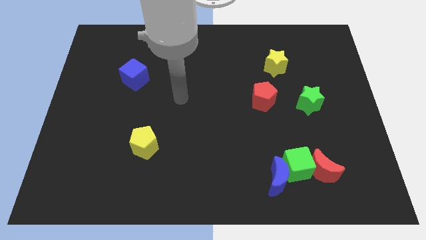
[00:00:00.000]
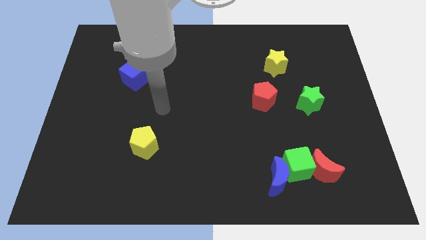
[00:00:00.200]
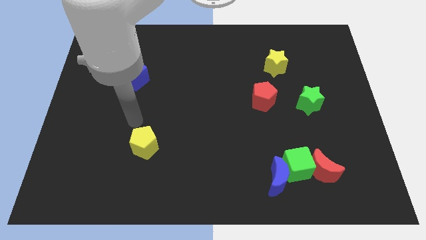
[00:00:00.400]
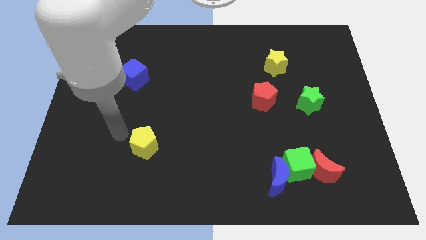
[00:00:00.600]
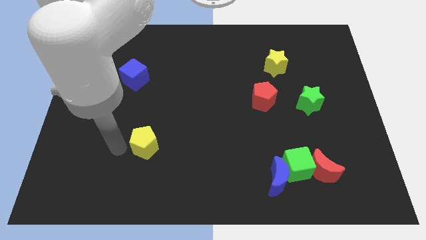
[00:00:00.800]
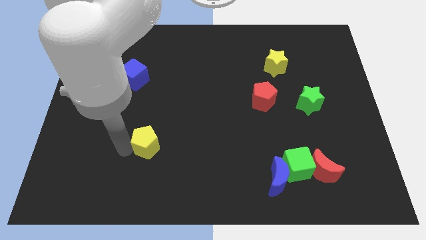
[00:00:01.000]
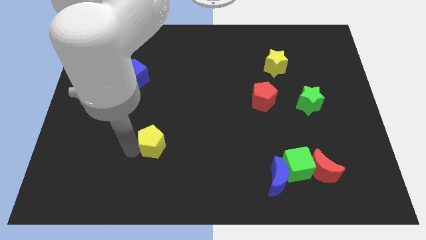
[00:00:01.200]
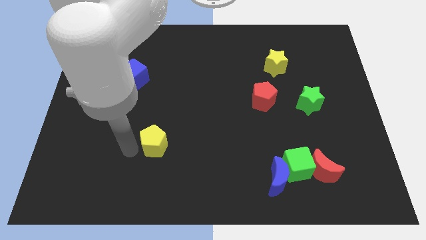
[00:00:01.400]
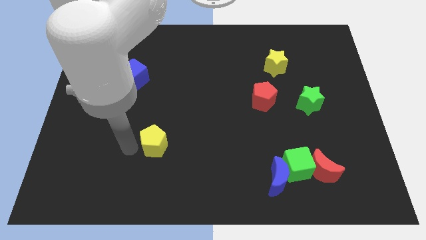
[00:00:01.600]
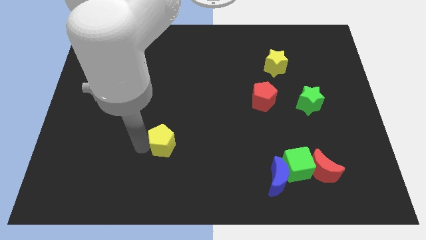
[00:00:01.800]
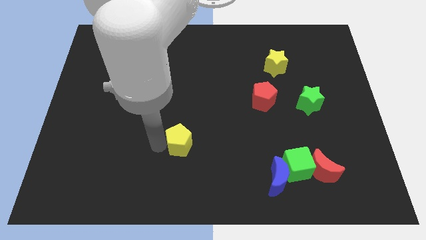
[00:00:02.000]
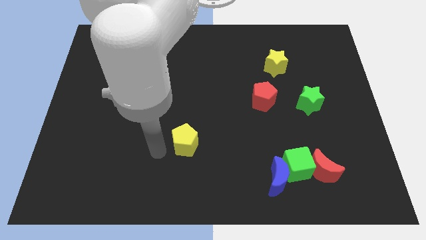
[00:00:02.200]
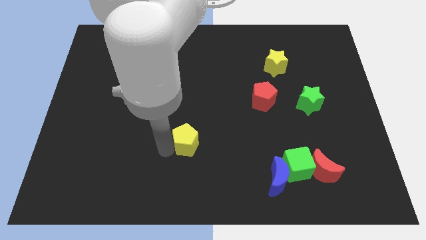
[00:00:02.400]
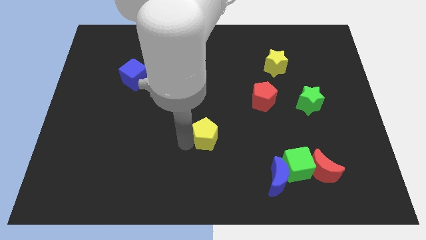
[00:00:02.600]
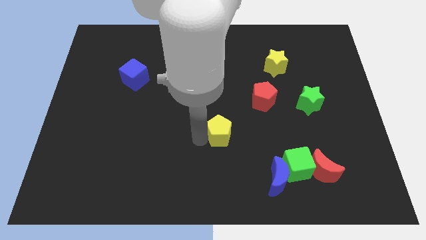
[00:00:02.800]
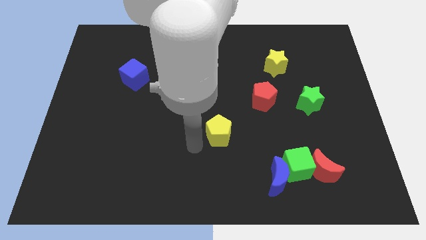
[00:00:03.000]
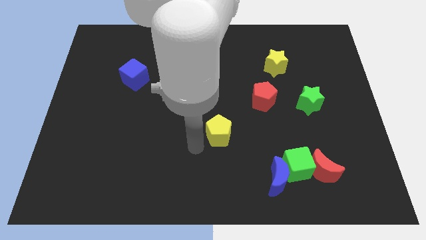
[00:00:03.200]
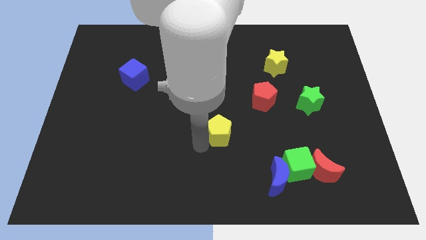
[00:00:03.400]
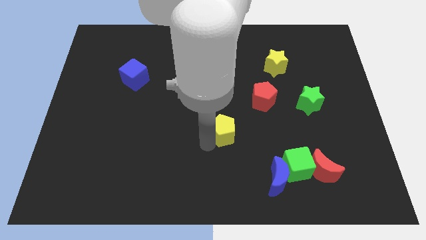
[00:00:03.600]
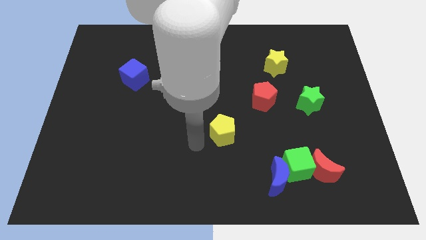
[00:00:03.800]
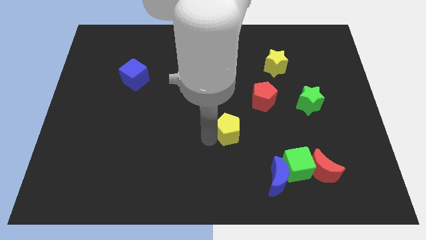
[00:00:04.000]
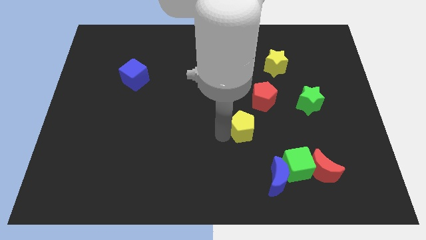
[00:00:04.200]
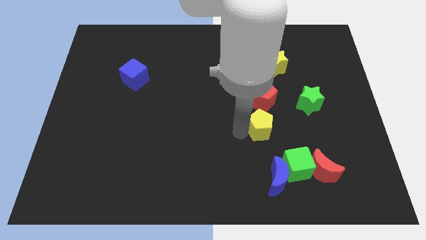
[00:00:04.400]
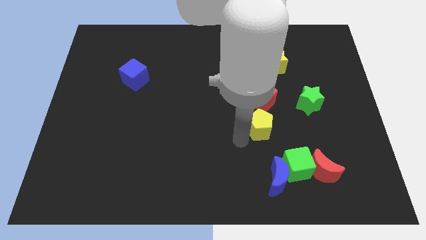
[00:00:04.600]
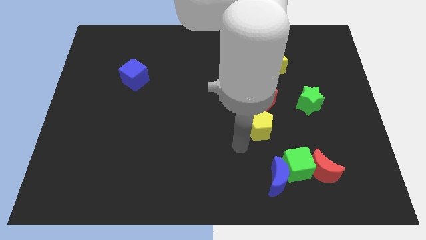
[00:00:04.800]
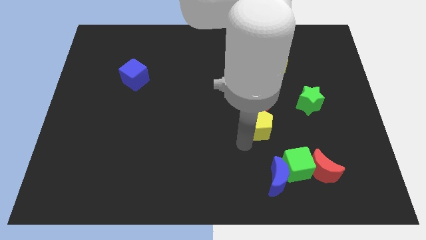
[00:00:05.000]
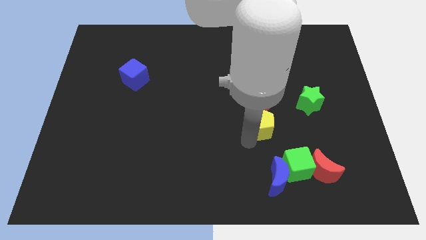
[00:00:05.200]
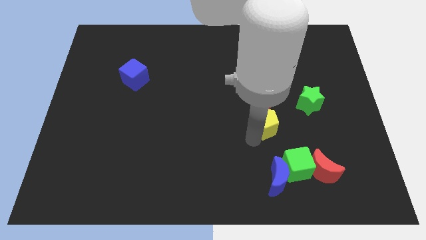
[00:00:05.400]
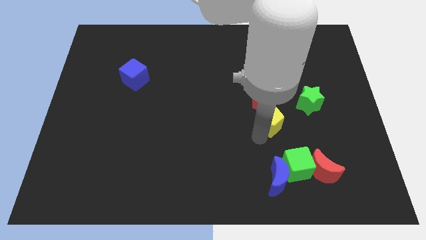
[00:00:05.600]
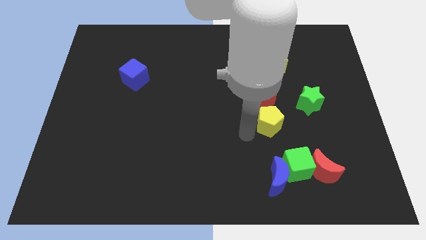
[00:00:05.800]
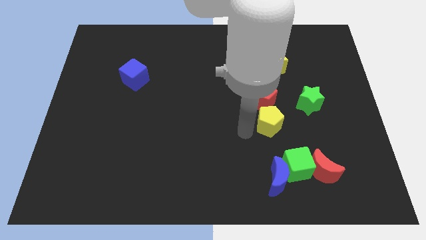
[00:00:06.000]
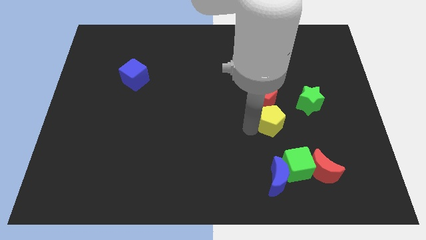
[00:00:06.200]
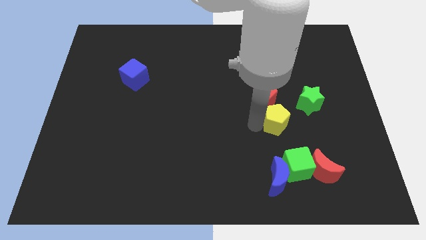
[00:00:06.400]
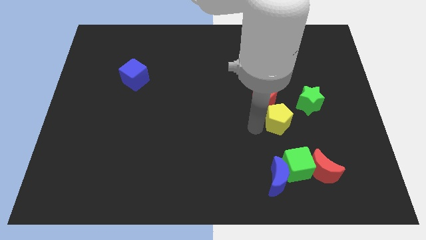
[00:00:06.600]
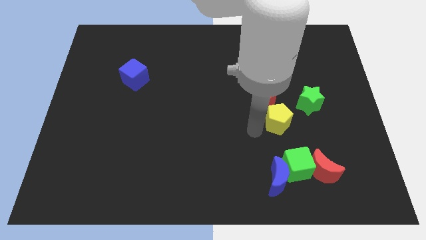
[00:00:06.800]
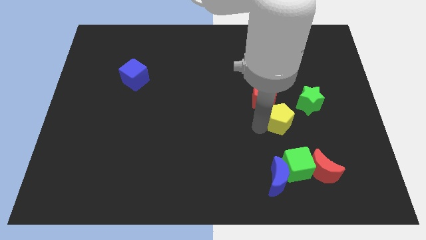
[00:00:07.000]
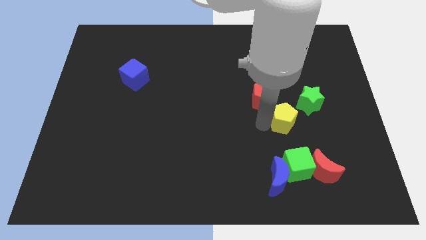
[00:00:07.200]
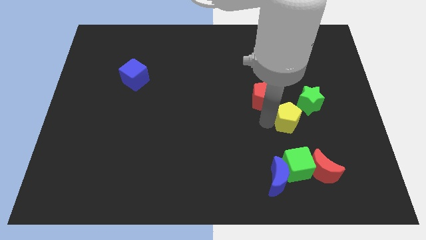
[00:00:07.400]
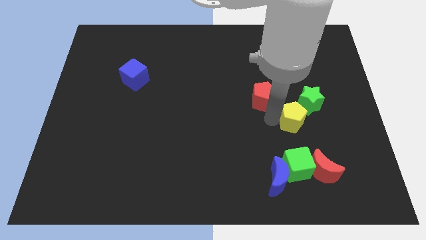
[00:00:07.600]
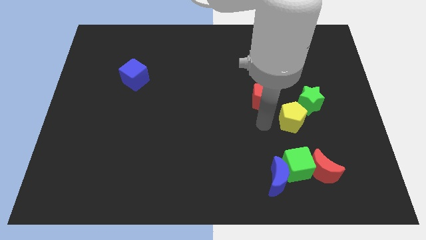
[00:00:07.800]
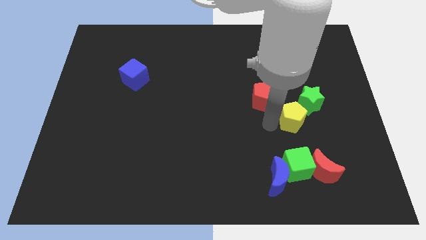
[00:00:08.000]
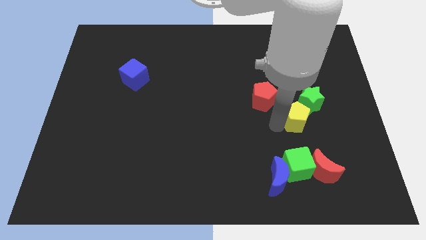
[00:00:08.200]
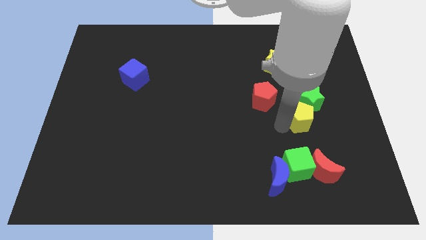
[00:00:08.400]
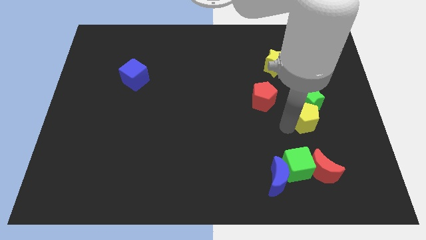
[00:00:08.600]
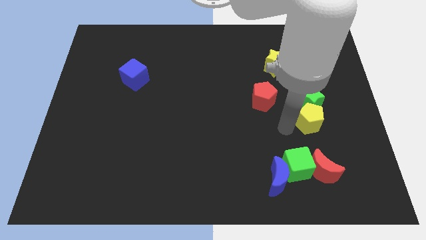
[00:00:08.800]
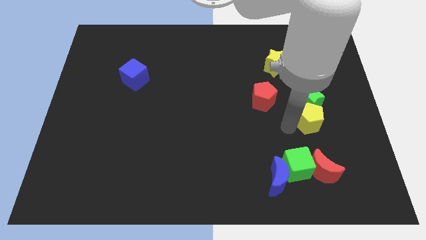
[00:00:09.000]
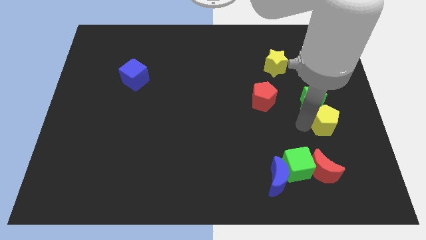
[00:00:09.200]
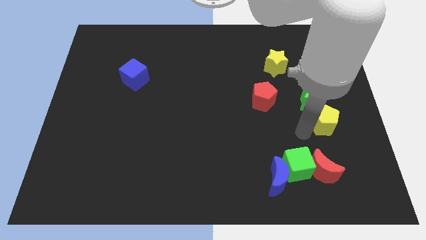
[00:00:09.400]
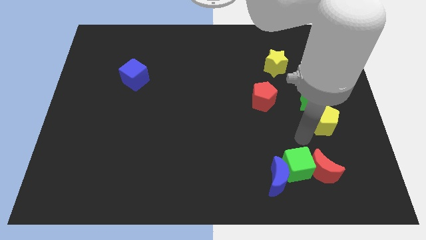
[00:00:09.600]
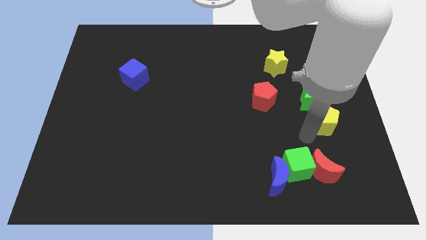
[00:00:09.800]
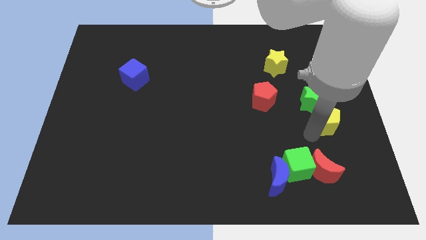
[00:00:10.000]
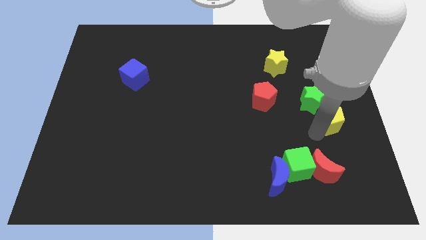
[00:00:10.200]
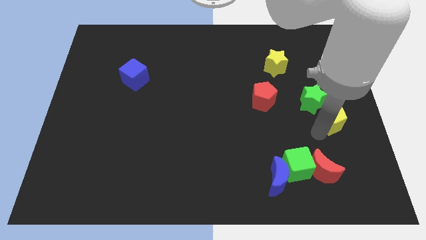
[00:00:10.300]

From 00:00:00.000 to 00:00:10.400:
push the yellow pentagon to the right side of the board

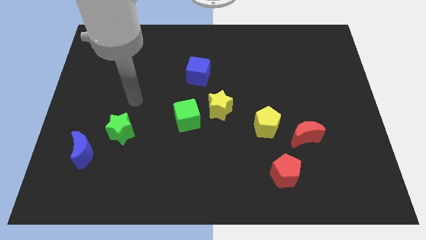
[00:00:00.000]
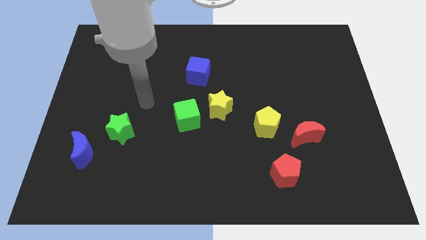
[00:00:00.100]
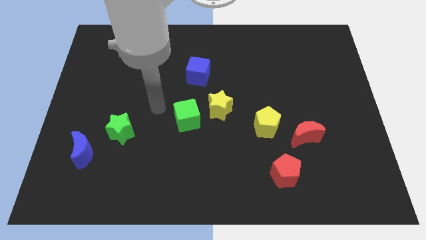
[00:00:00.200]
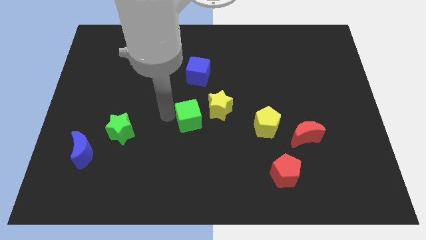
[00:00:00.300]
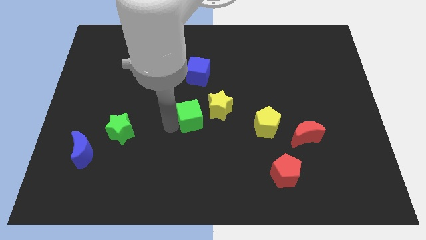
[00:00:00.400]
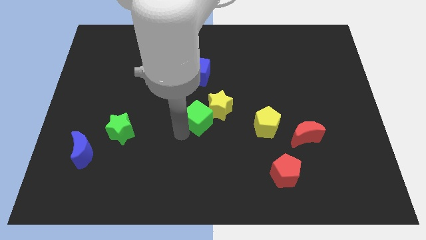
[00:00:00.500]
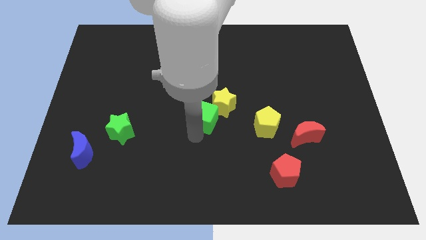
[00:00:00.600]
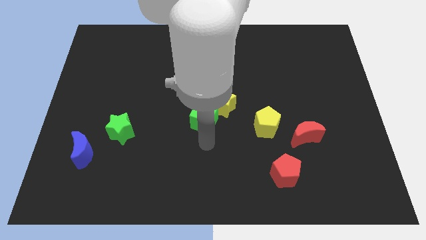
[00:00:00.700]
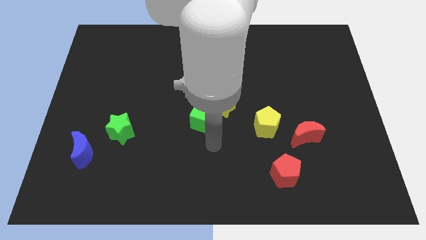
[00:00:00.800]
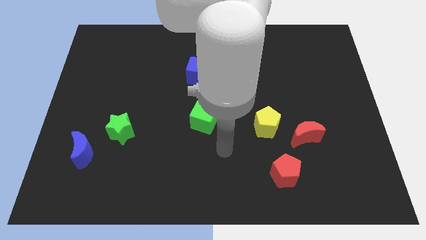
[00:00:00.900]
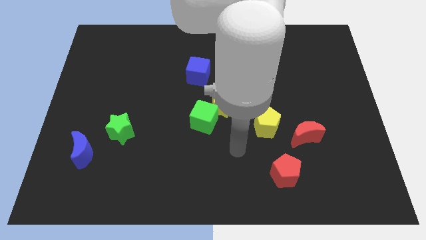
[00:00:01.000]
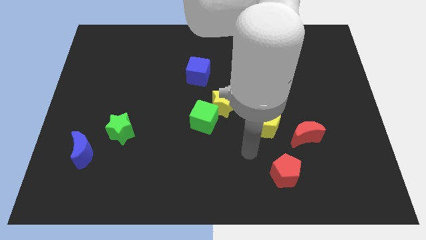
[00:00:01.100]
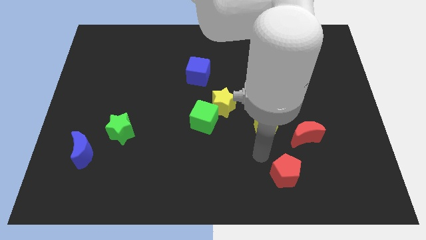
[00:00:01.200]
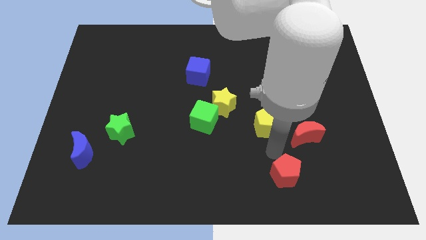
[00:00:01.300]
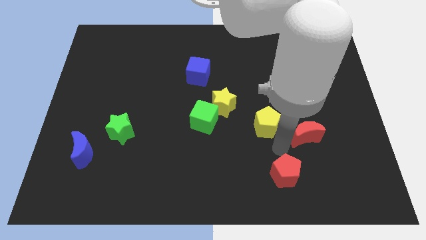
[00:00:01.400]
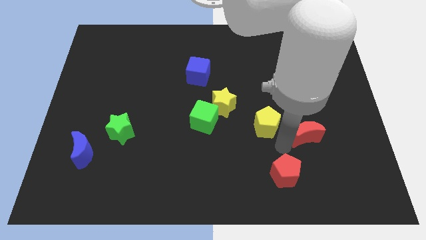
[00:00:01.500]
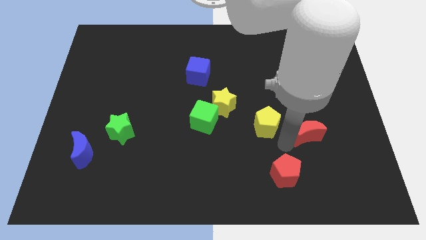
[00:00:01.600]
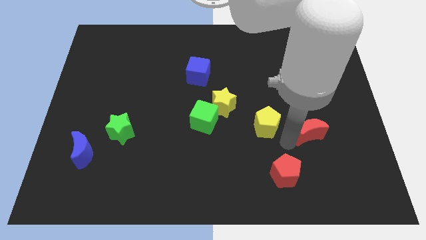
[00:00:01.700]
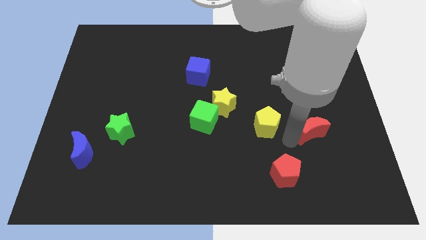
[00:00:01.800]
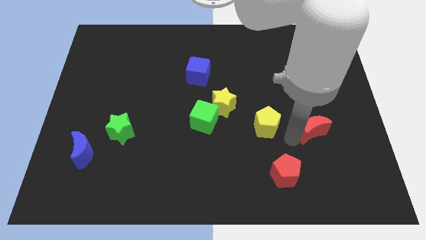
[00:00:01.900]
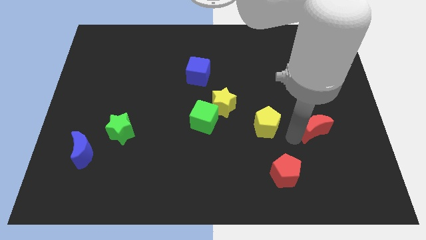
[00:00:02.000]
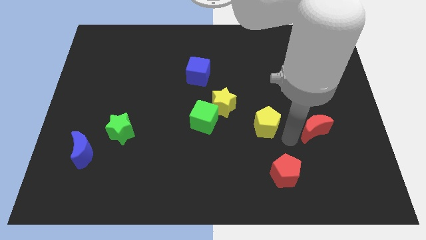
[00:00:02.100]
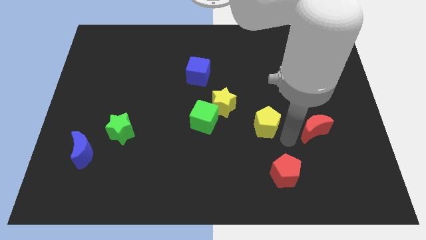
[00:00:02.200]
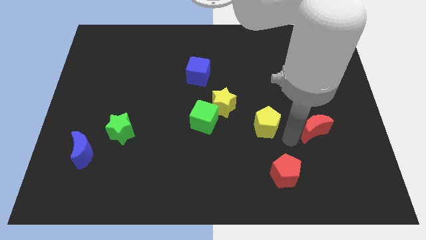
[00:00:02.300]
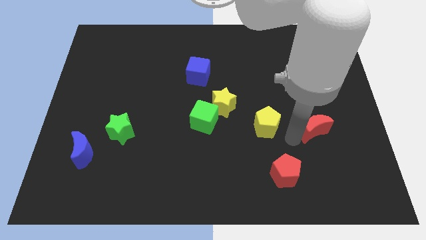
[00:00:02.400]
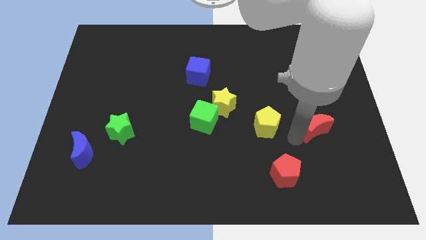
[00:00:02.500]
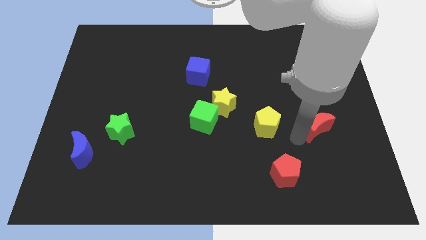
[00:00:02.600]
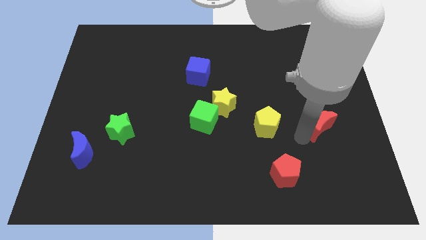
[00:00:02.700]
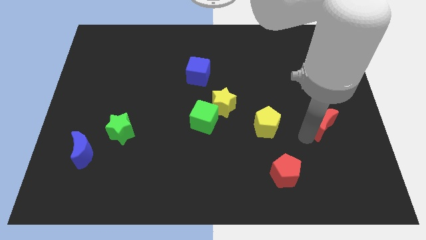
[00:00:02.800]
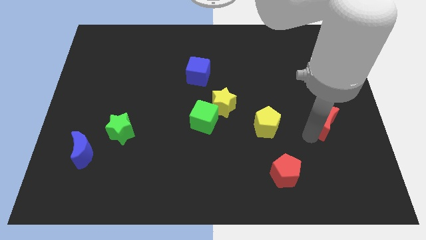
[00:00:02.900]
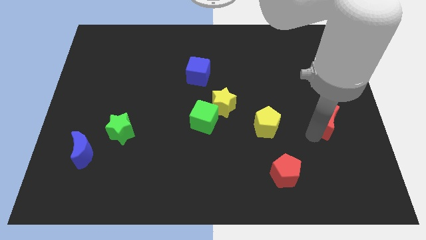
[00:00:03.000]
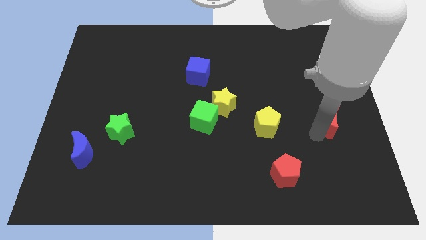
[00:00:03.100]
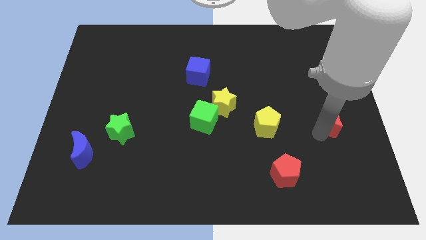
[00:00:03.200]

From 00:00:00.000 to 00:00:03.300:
slide the red moon to the right side of the board

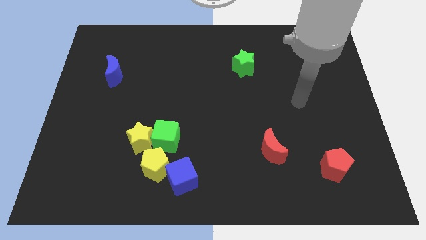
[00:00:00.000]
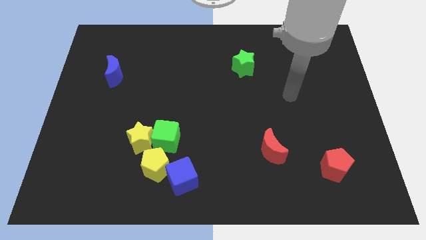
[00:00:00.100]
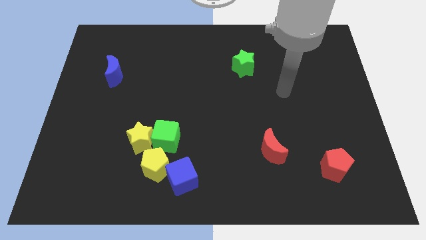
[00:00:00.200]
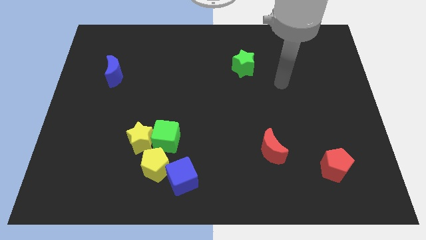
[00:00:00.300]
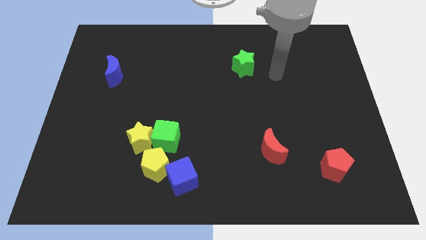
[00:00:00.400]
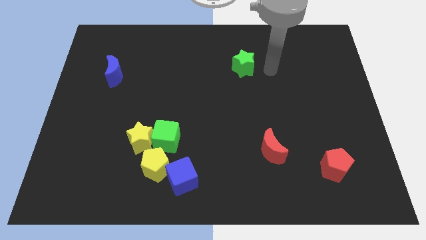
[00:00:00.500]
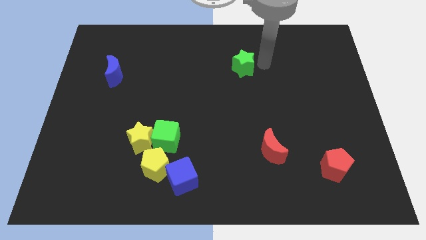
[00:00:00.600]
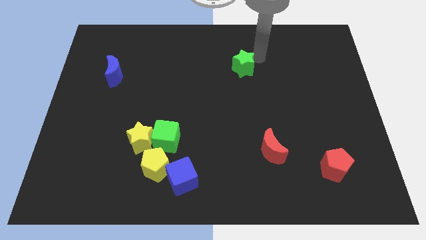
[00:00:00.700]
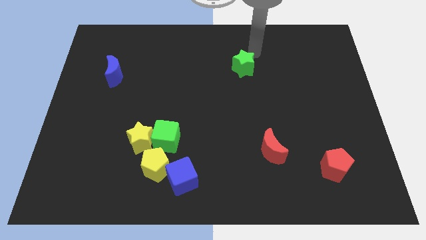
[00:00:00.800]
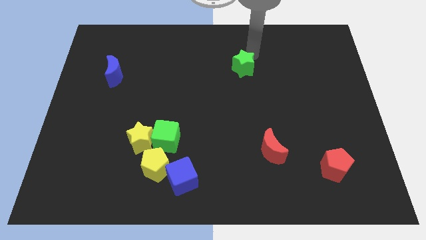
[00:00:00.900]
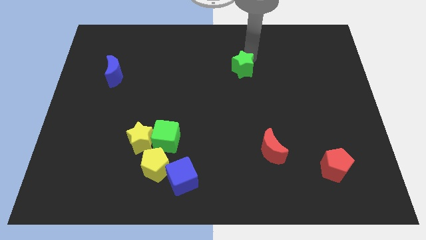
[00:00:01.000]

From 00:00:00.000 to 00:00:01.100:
push the green star to the center of the board
